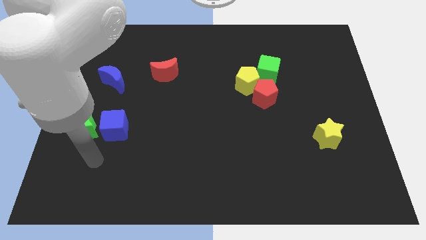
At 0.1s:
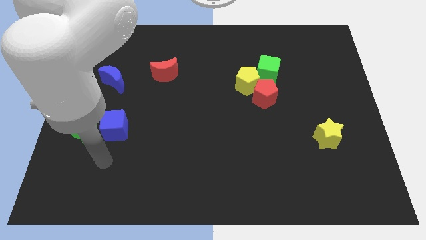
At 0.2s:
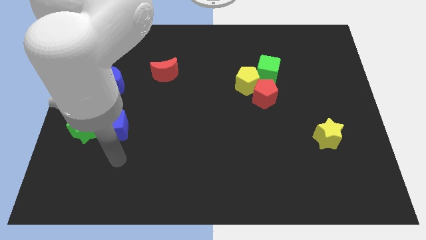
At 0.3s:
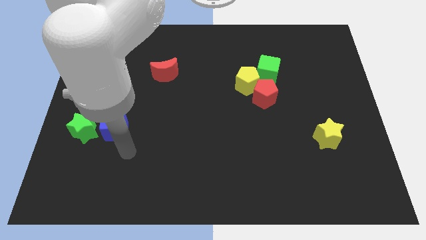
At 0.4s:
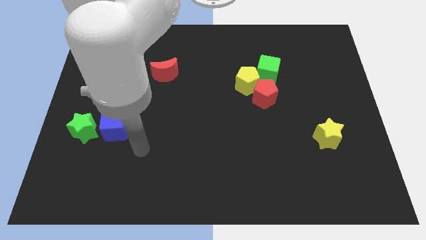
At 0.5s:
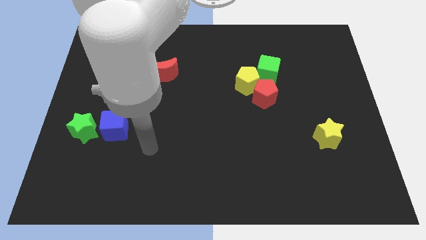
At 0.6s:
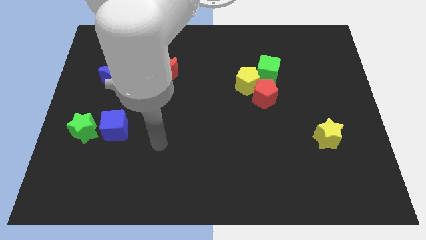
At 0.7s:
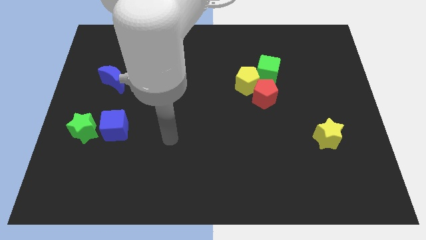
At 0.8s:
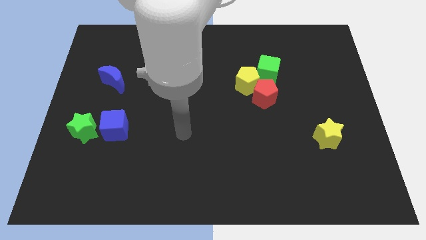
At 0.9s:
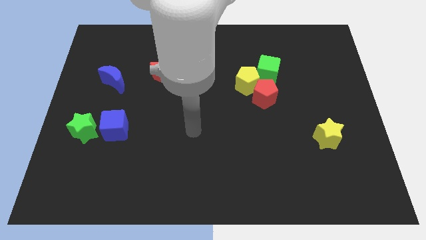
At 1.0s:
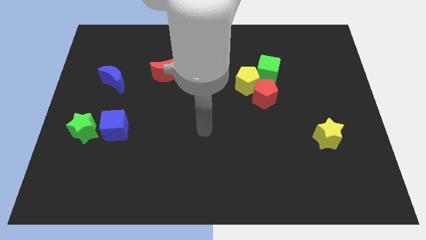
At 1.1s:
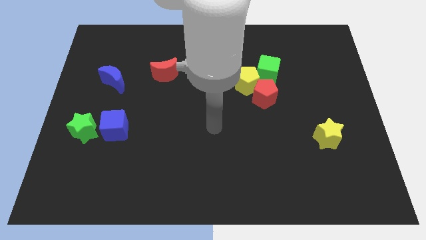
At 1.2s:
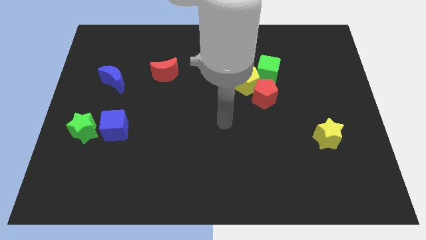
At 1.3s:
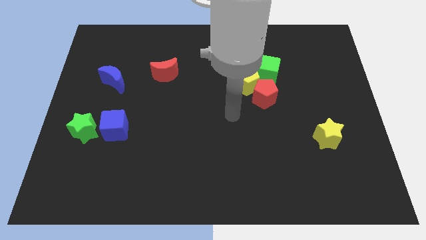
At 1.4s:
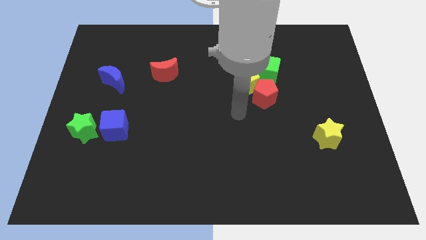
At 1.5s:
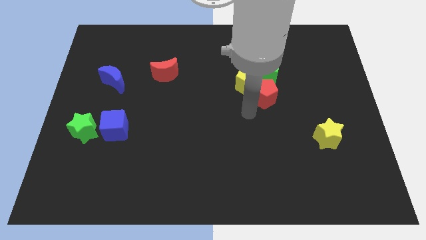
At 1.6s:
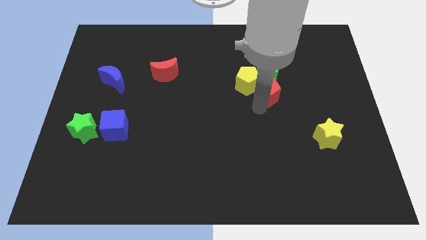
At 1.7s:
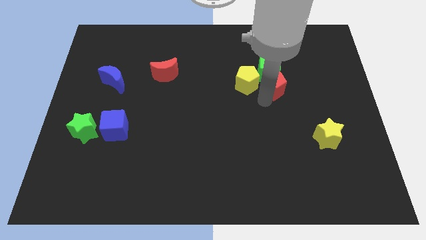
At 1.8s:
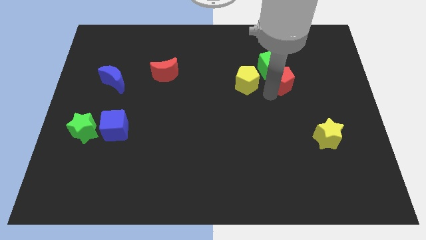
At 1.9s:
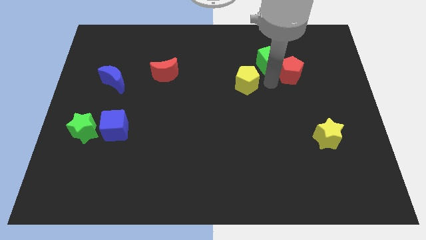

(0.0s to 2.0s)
separate the yellow pentagon from the red pentagon and green cube

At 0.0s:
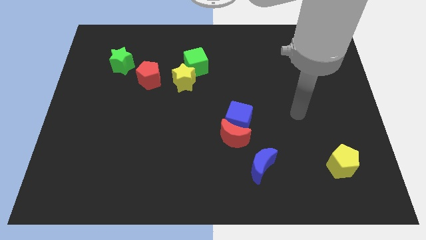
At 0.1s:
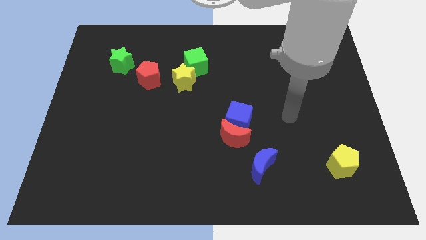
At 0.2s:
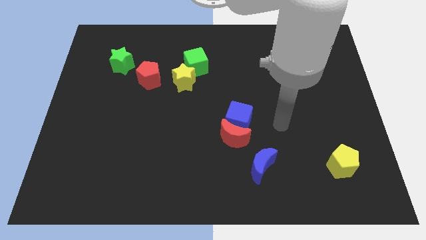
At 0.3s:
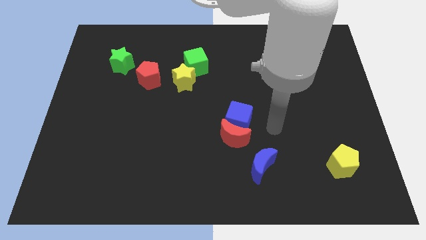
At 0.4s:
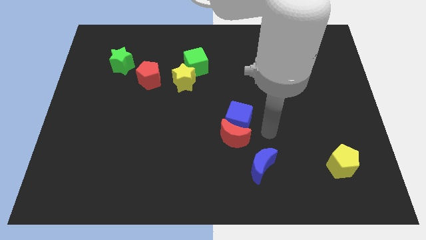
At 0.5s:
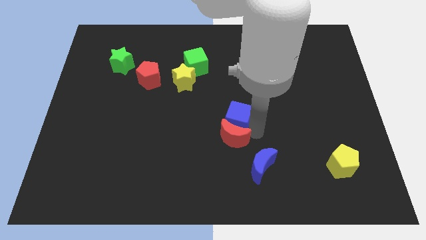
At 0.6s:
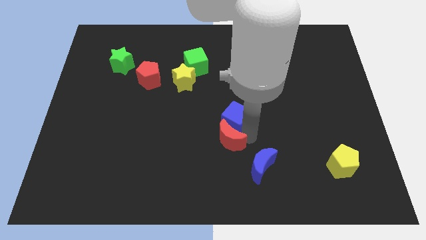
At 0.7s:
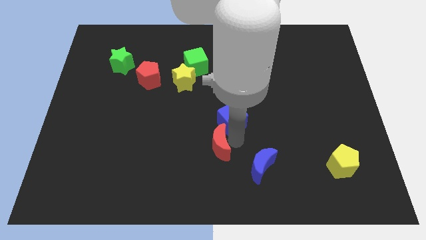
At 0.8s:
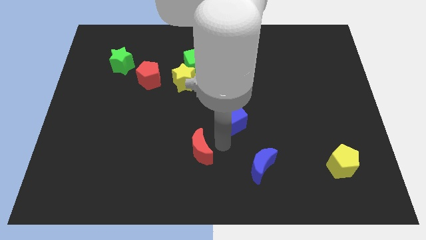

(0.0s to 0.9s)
move the blue cube away from the red moon

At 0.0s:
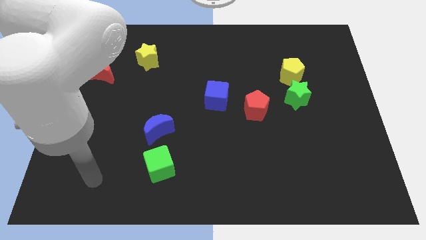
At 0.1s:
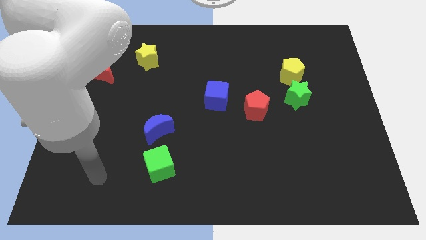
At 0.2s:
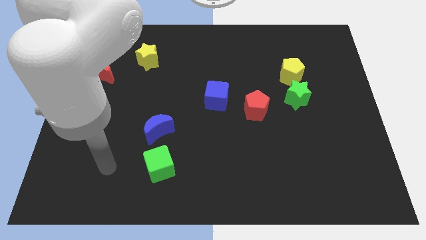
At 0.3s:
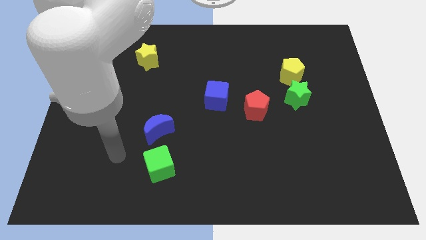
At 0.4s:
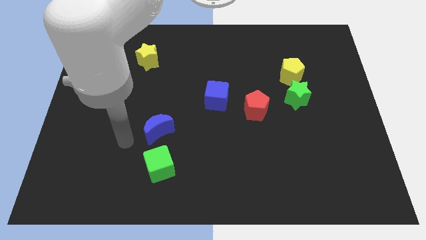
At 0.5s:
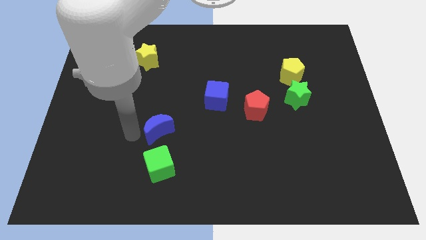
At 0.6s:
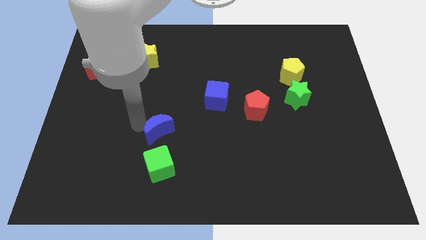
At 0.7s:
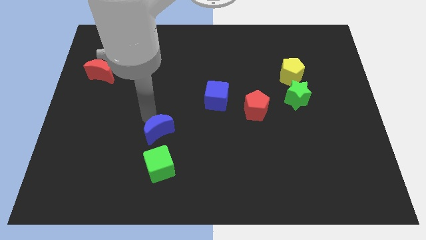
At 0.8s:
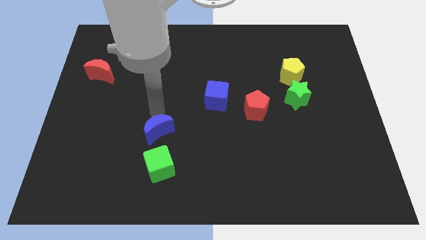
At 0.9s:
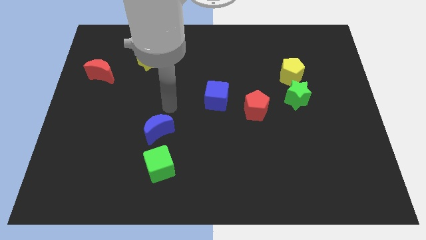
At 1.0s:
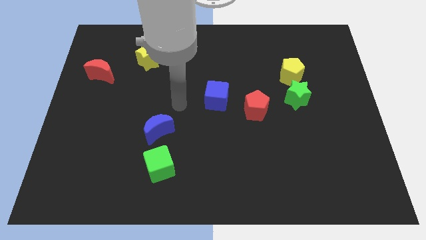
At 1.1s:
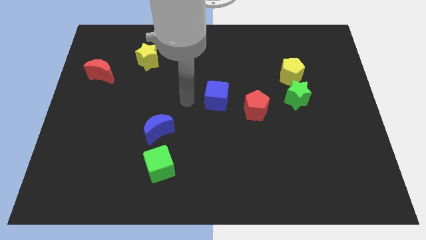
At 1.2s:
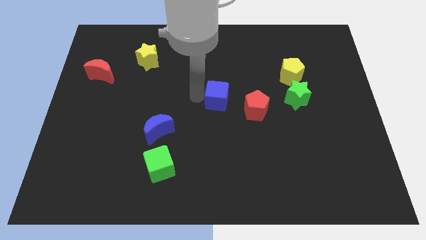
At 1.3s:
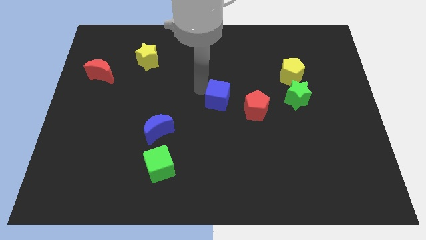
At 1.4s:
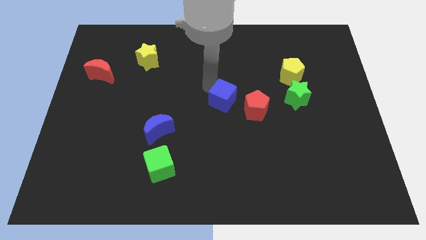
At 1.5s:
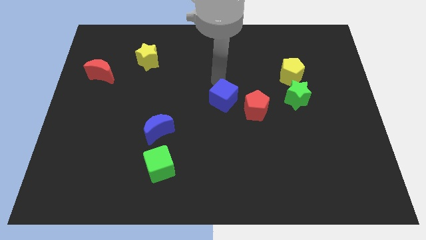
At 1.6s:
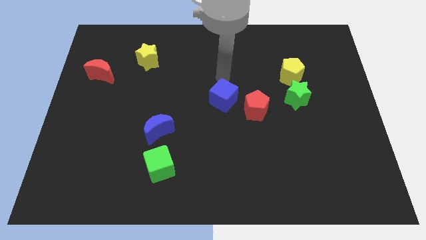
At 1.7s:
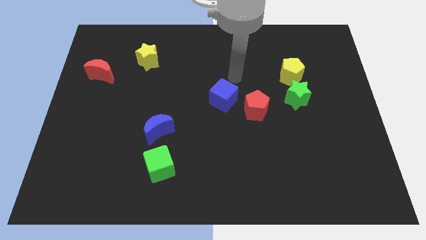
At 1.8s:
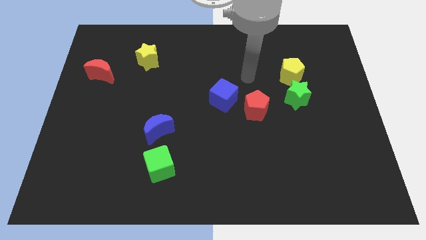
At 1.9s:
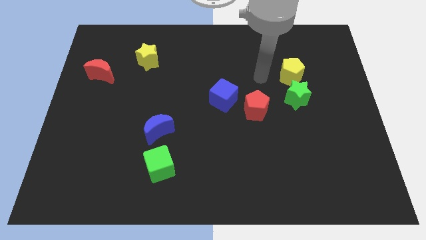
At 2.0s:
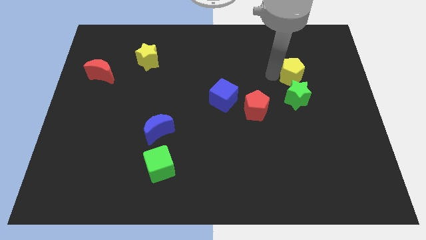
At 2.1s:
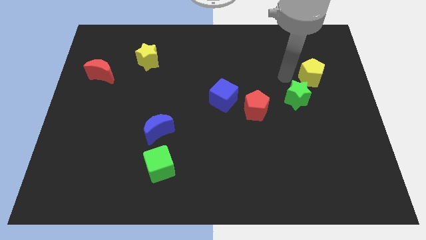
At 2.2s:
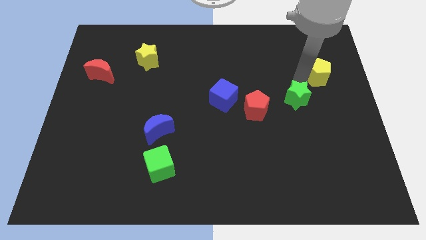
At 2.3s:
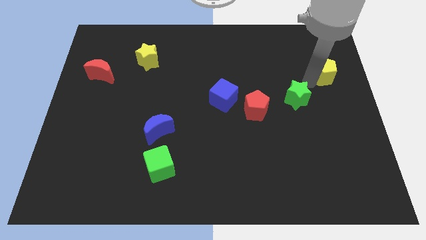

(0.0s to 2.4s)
pull the green star apart from the yellow pentagon

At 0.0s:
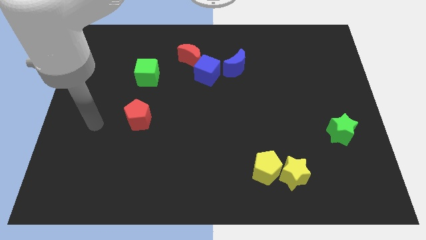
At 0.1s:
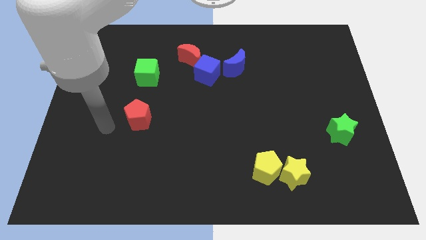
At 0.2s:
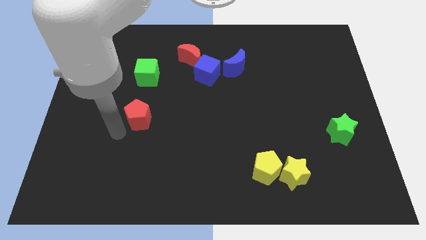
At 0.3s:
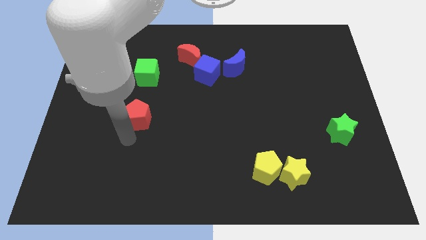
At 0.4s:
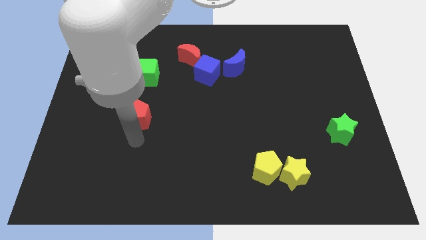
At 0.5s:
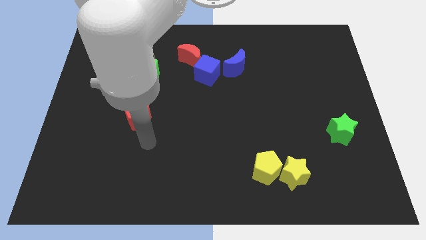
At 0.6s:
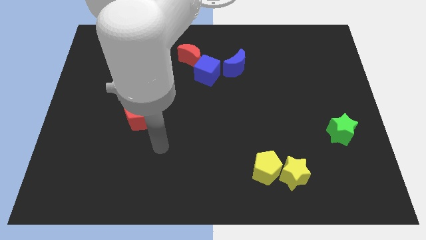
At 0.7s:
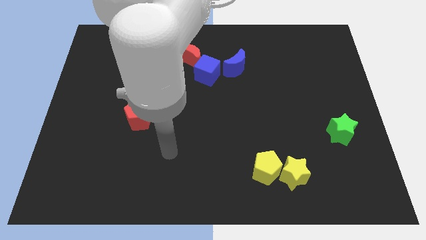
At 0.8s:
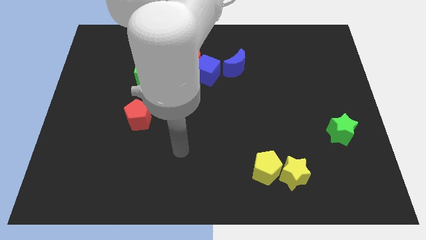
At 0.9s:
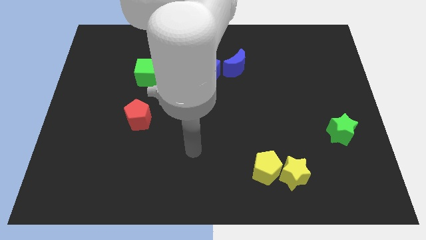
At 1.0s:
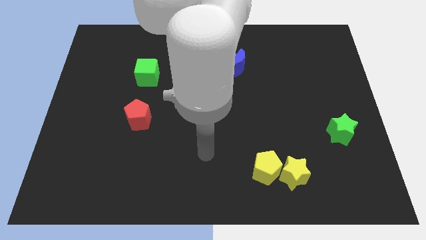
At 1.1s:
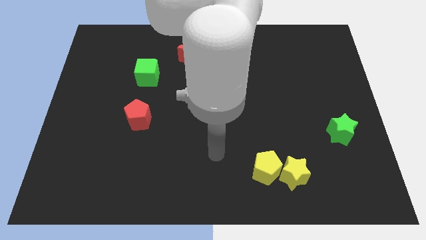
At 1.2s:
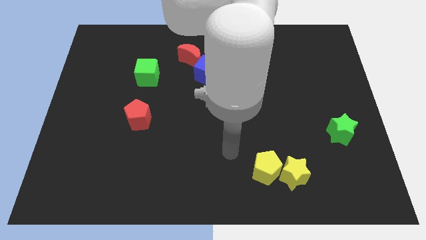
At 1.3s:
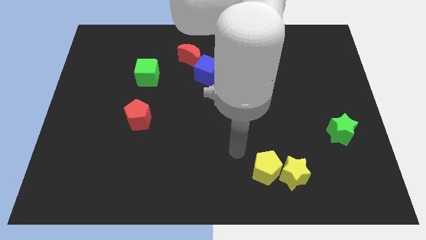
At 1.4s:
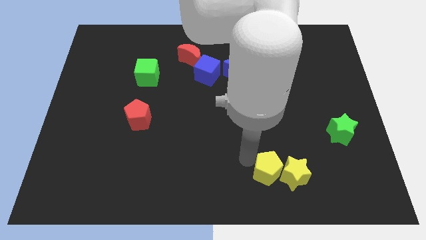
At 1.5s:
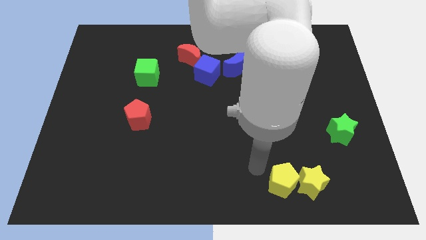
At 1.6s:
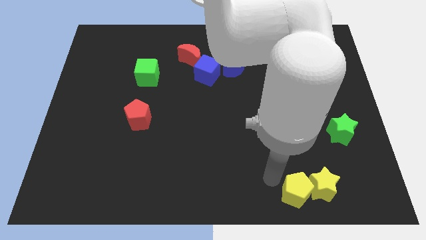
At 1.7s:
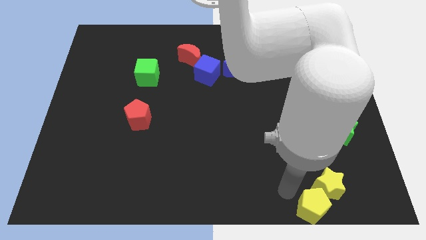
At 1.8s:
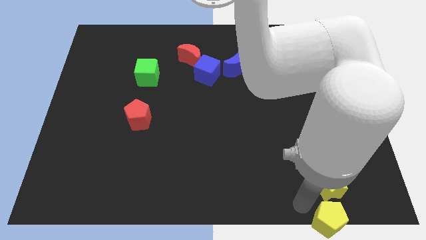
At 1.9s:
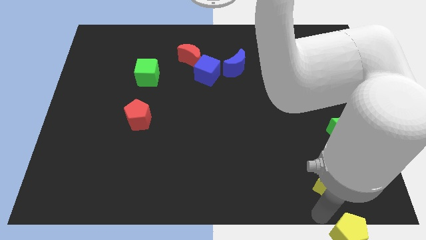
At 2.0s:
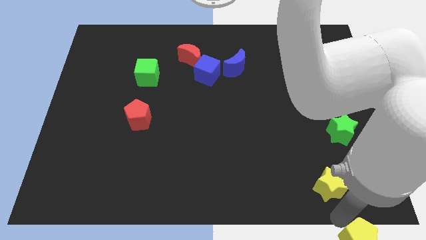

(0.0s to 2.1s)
separate the yellow star from the yellow pentagon

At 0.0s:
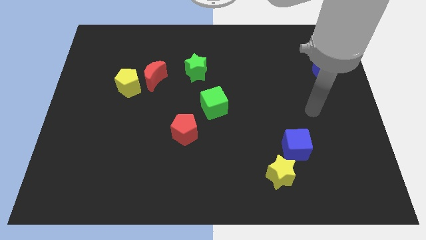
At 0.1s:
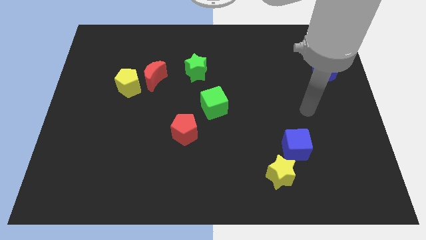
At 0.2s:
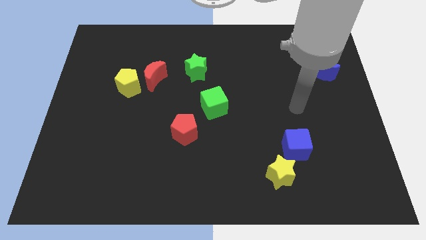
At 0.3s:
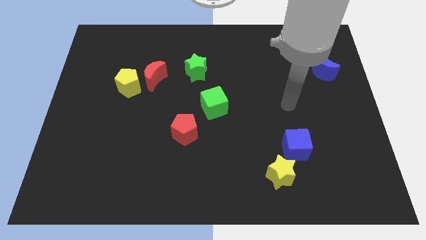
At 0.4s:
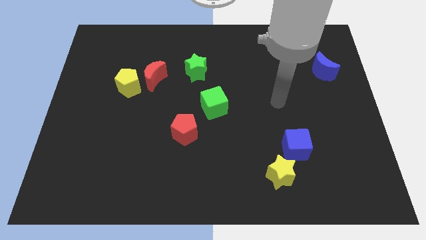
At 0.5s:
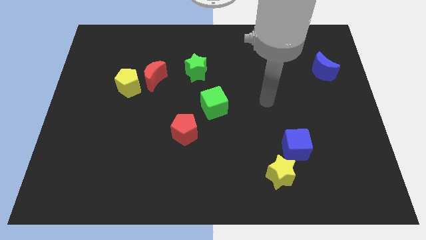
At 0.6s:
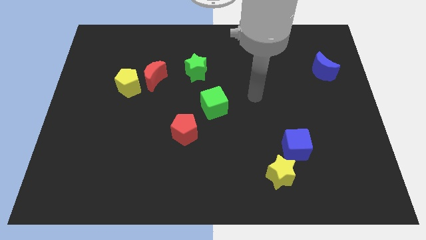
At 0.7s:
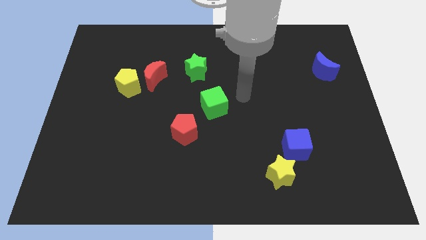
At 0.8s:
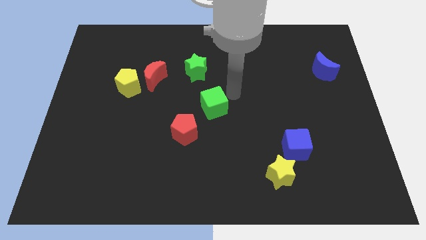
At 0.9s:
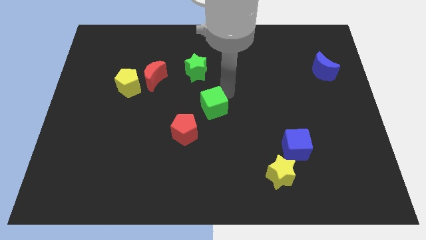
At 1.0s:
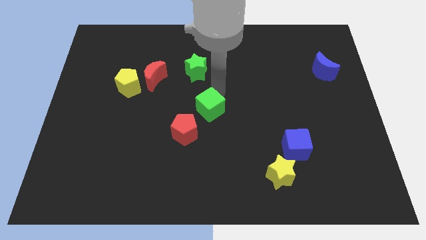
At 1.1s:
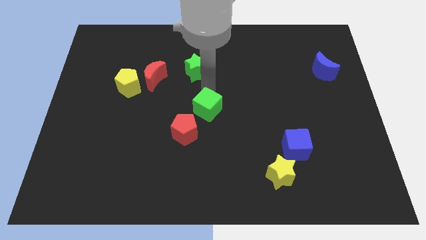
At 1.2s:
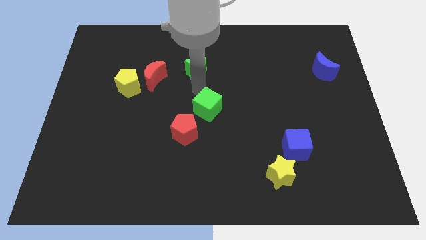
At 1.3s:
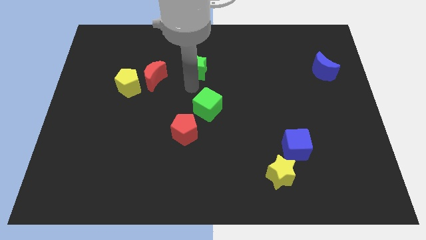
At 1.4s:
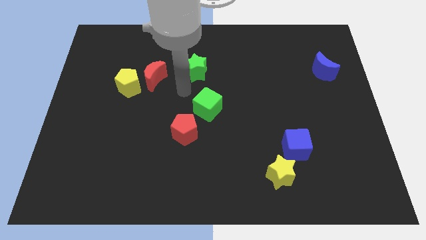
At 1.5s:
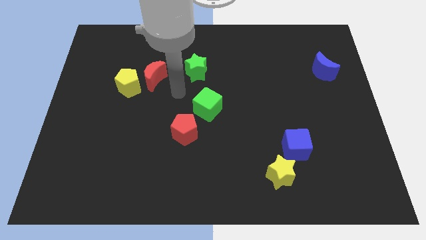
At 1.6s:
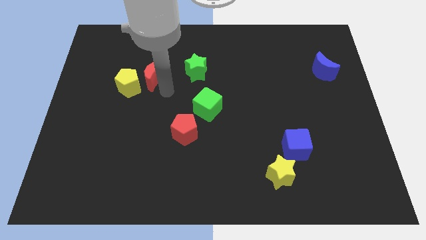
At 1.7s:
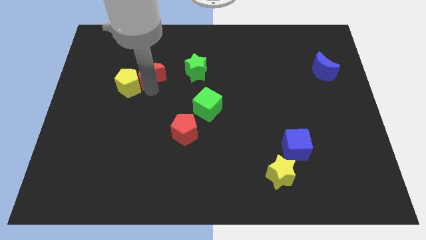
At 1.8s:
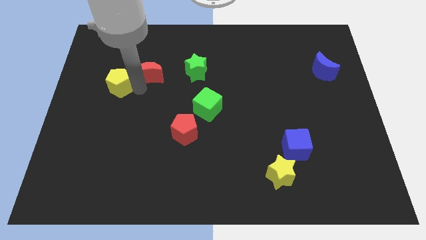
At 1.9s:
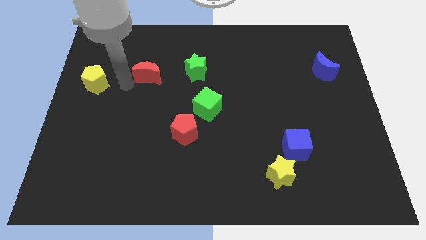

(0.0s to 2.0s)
separate the red moon from the yellow pentagon
